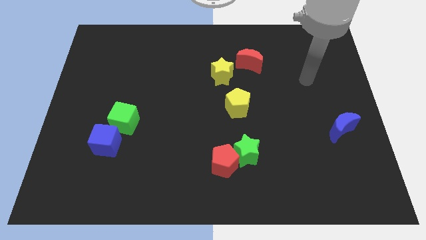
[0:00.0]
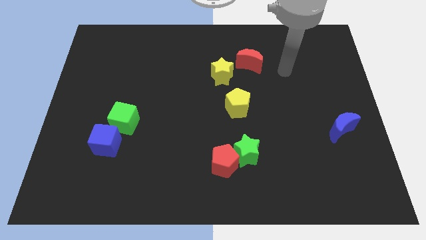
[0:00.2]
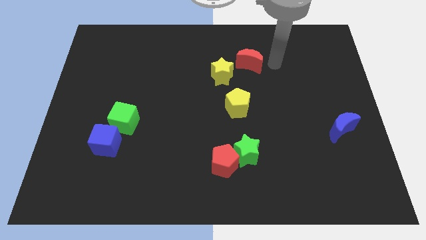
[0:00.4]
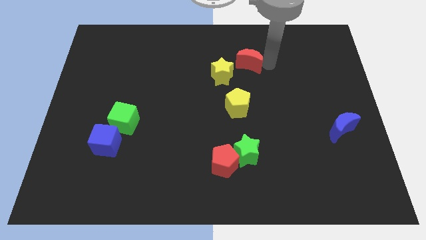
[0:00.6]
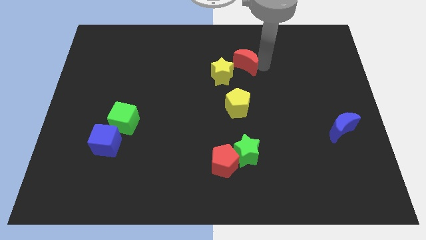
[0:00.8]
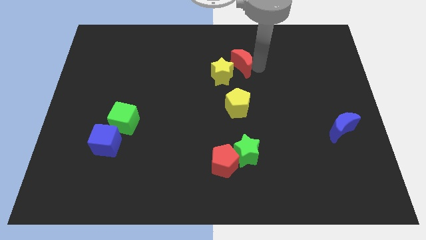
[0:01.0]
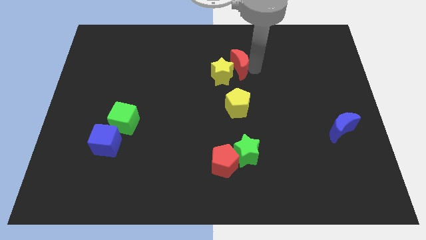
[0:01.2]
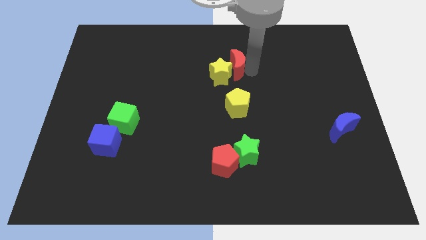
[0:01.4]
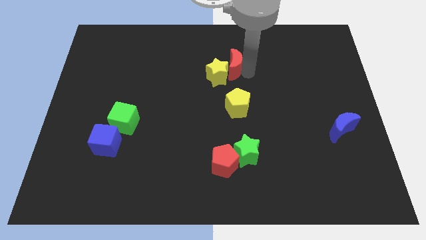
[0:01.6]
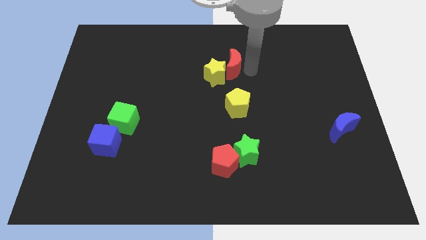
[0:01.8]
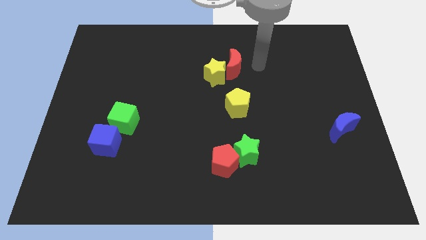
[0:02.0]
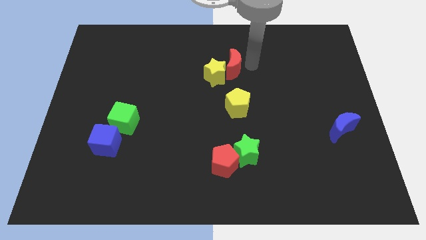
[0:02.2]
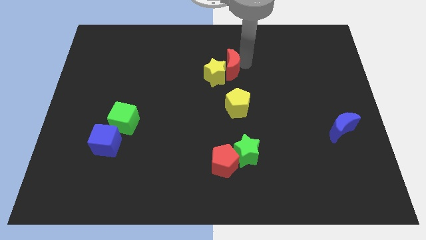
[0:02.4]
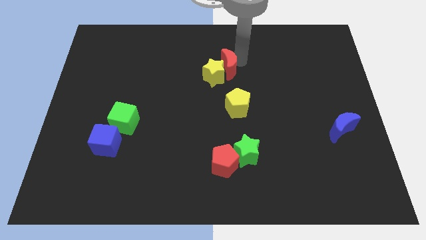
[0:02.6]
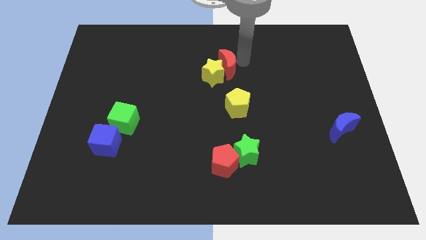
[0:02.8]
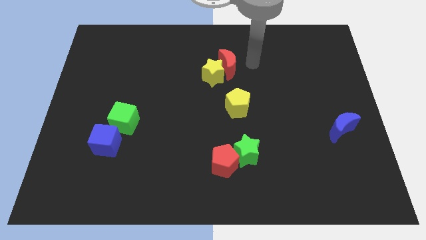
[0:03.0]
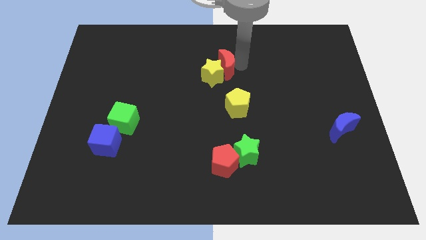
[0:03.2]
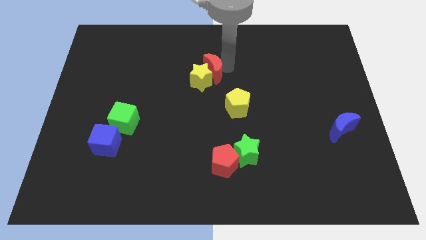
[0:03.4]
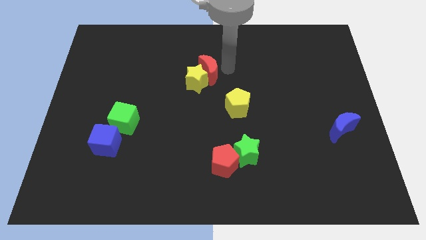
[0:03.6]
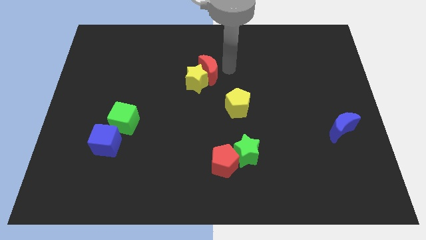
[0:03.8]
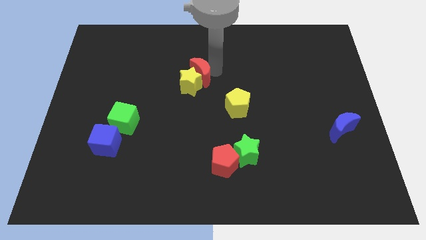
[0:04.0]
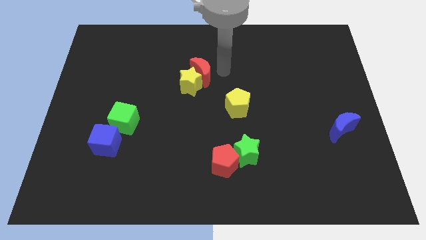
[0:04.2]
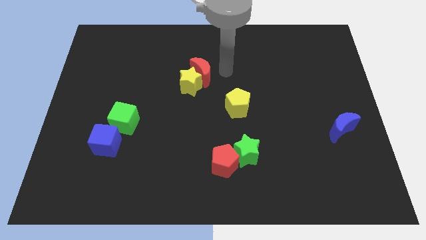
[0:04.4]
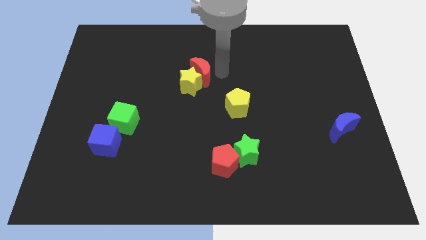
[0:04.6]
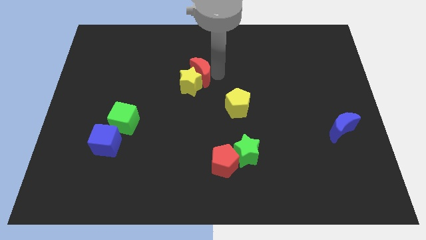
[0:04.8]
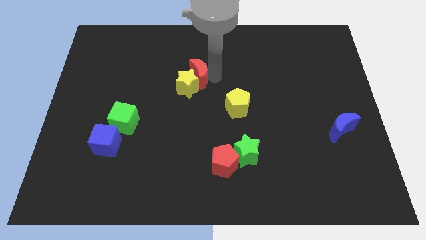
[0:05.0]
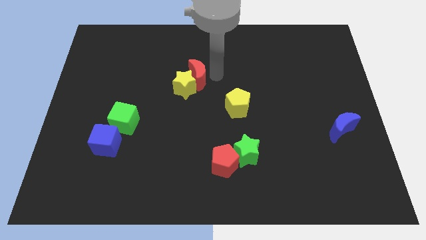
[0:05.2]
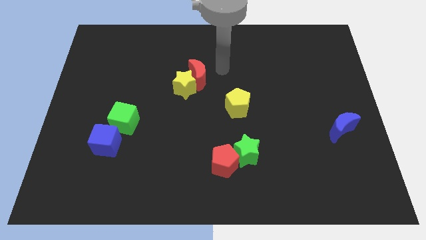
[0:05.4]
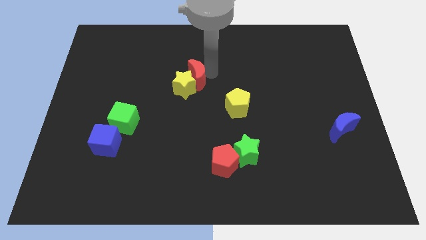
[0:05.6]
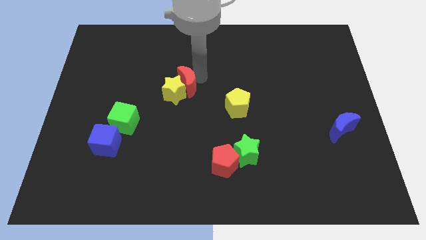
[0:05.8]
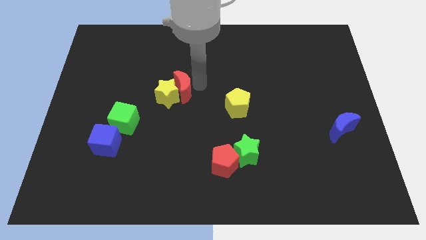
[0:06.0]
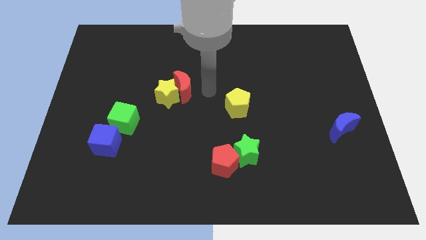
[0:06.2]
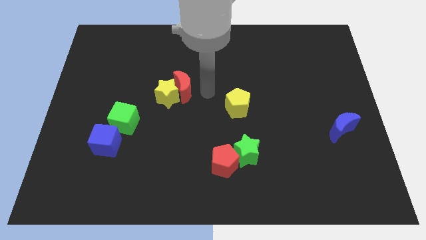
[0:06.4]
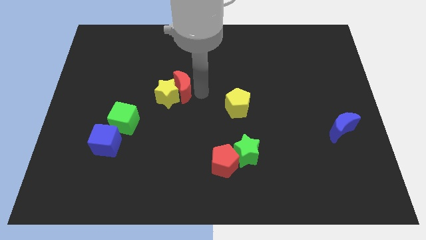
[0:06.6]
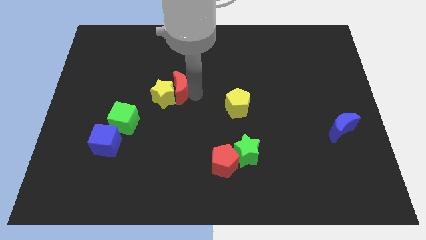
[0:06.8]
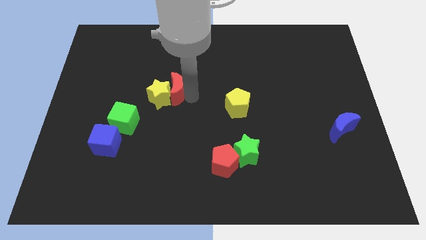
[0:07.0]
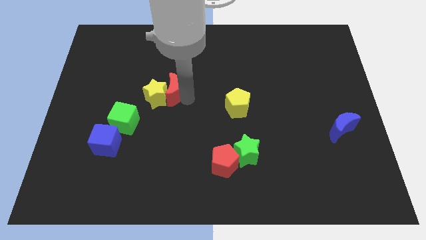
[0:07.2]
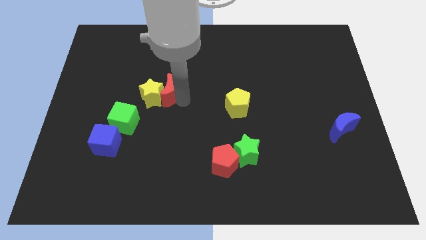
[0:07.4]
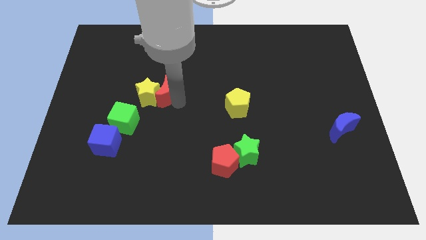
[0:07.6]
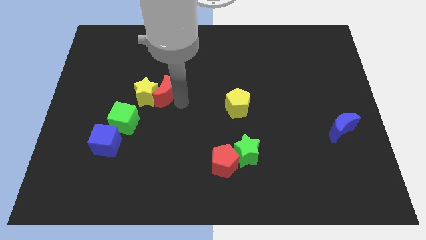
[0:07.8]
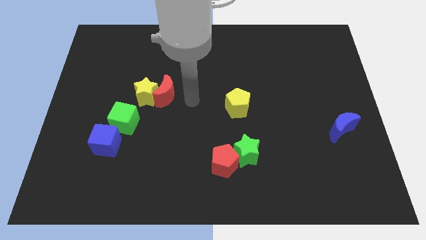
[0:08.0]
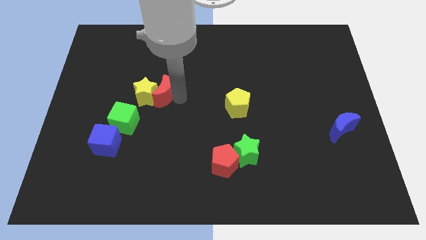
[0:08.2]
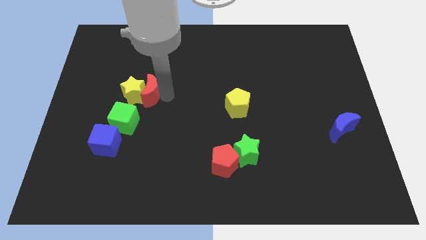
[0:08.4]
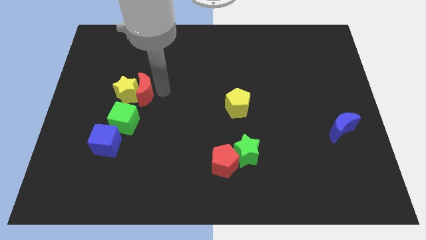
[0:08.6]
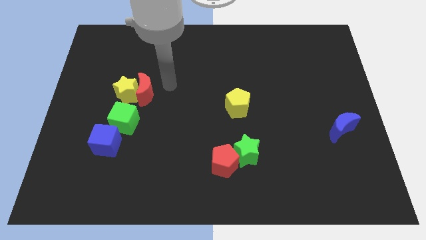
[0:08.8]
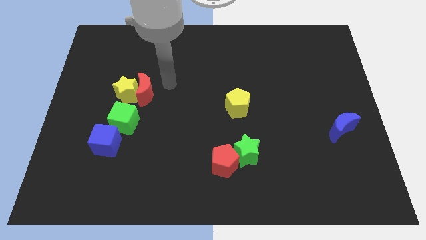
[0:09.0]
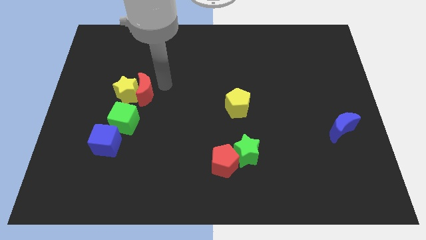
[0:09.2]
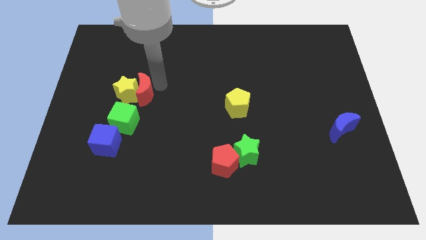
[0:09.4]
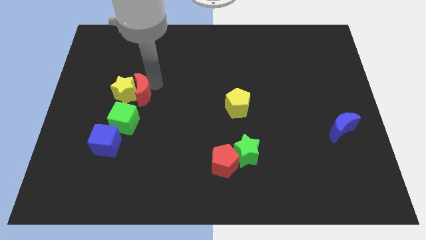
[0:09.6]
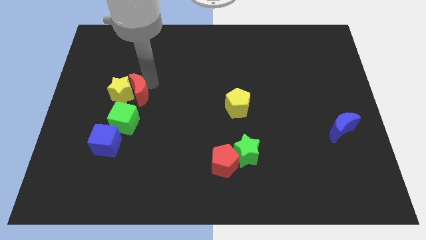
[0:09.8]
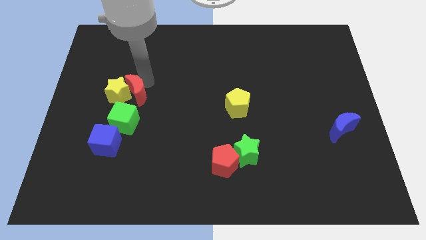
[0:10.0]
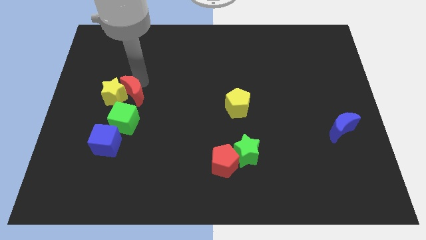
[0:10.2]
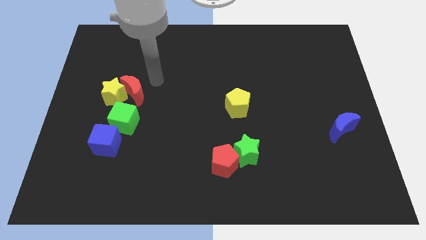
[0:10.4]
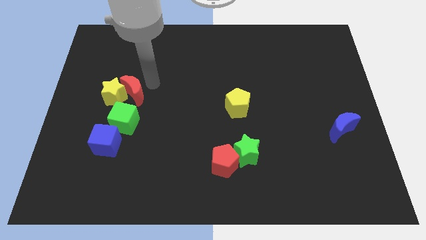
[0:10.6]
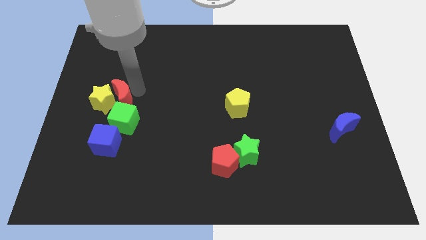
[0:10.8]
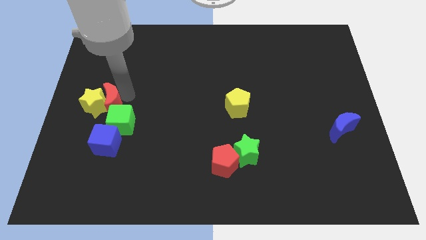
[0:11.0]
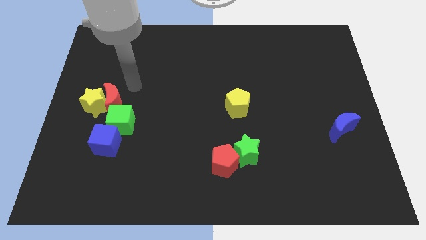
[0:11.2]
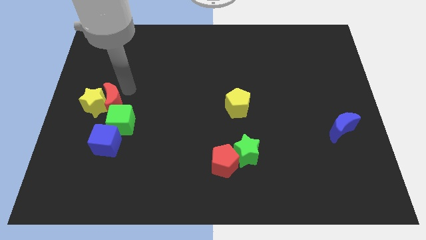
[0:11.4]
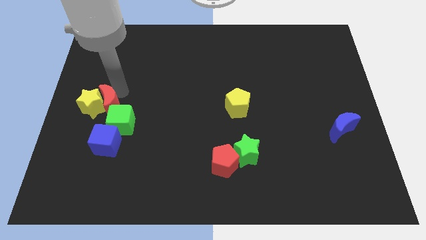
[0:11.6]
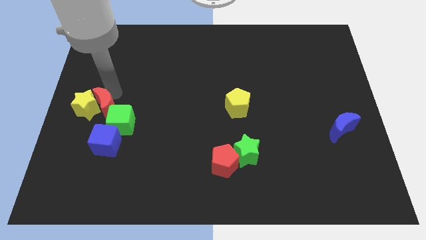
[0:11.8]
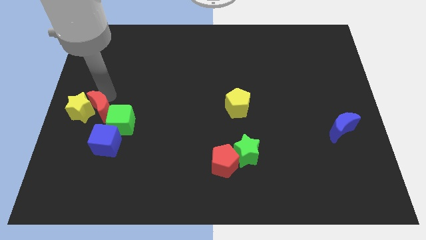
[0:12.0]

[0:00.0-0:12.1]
move the red moon diagonally up and to the left of the blue cube

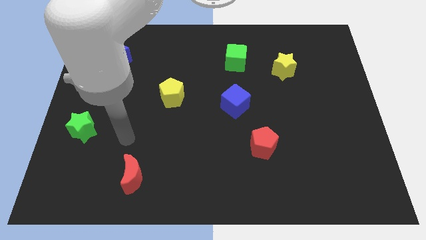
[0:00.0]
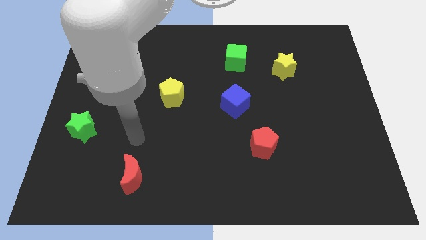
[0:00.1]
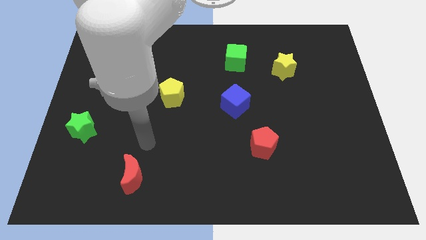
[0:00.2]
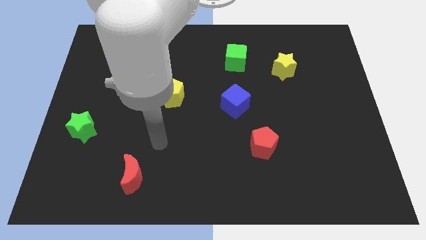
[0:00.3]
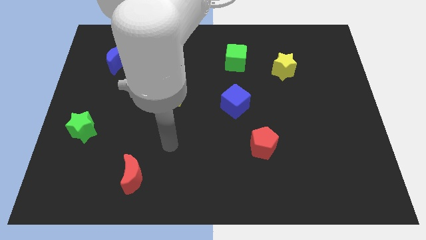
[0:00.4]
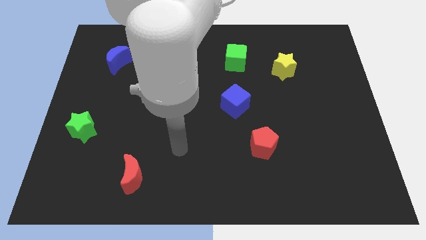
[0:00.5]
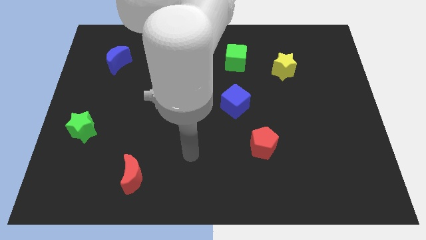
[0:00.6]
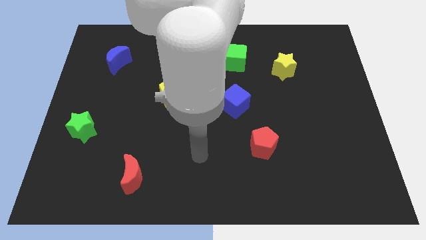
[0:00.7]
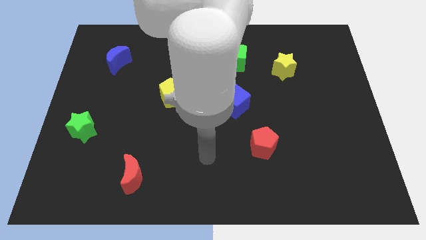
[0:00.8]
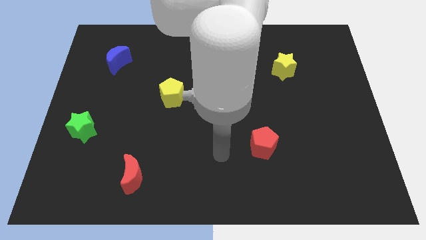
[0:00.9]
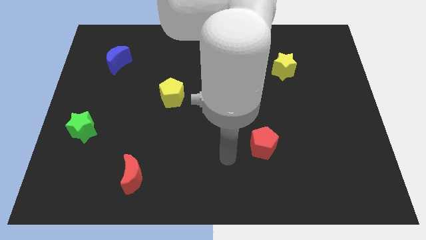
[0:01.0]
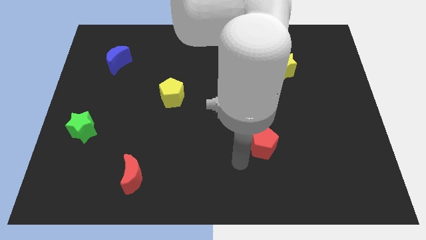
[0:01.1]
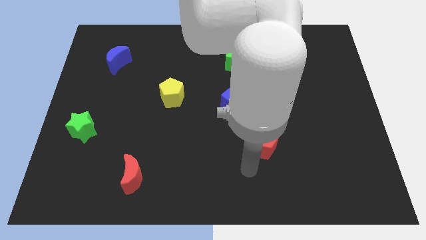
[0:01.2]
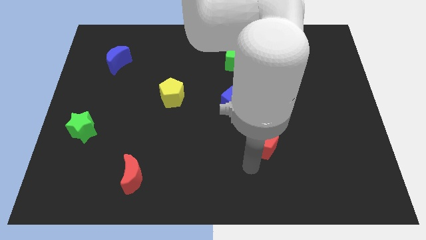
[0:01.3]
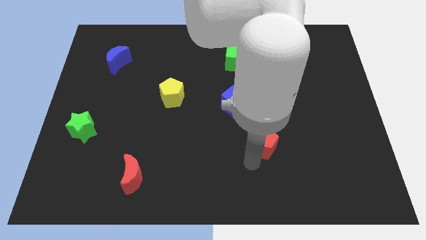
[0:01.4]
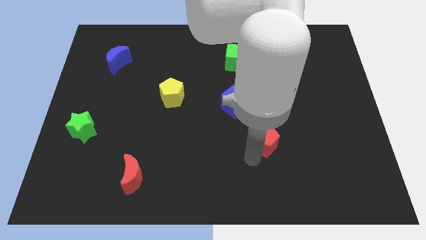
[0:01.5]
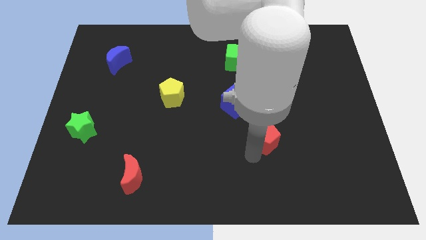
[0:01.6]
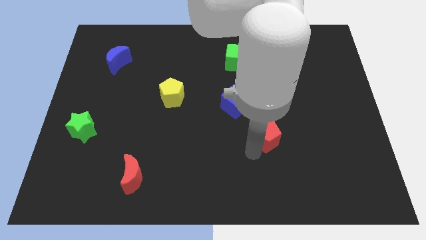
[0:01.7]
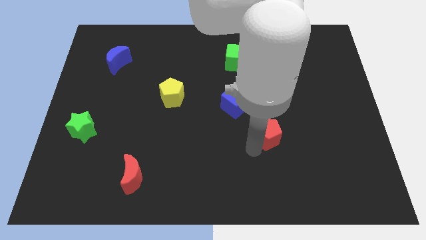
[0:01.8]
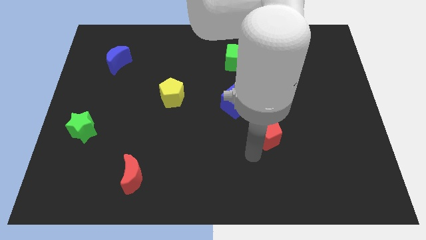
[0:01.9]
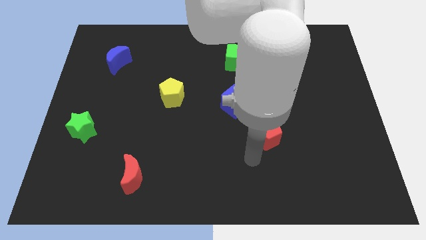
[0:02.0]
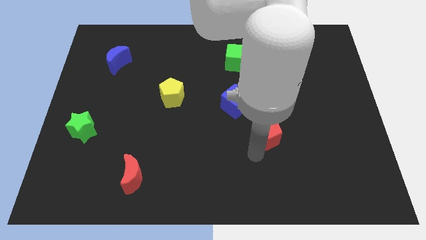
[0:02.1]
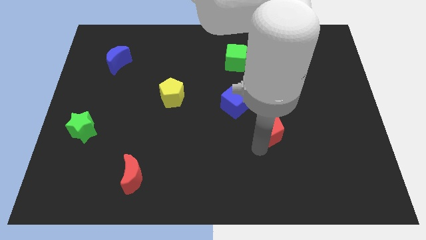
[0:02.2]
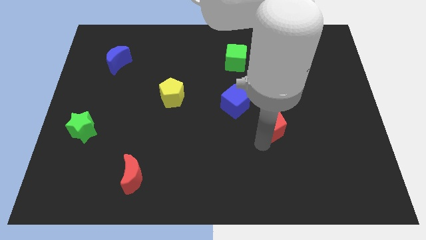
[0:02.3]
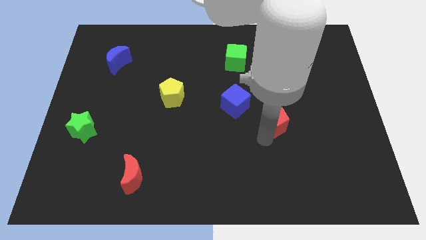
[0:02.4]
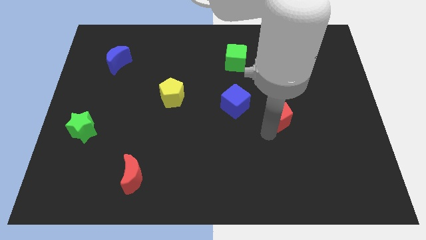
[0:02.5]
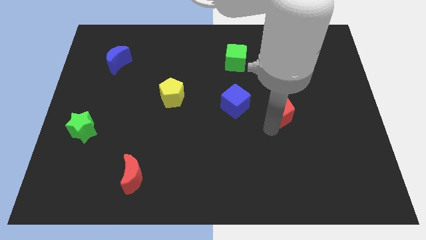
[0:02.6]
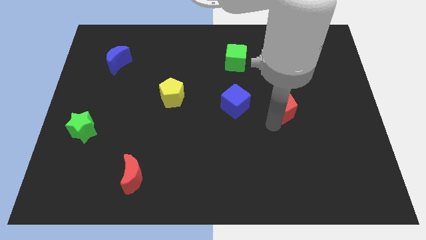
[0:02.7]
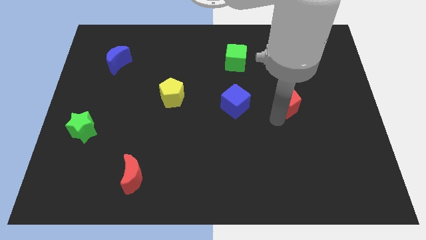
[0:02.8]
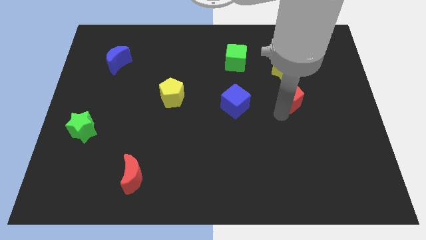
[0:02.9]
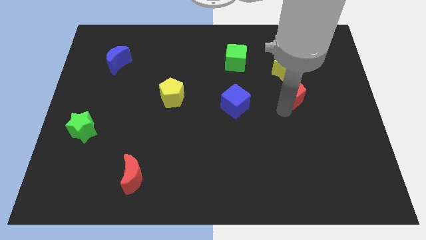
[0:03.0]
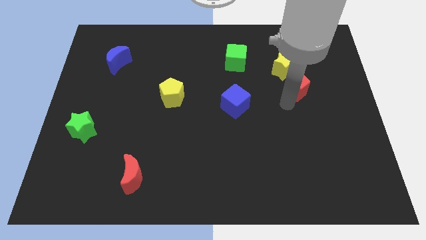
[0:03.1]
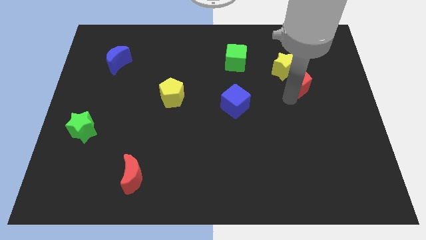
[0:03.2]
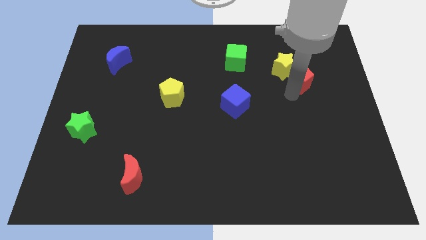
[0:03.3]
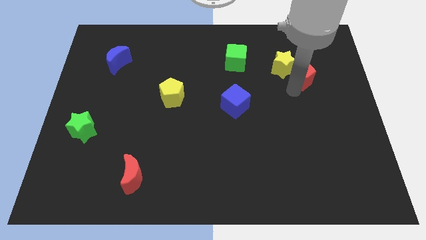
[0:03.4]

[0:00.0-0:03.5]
put the red pentagon to the right side of the yellow star
